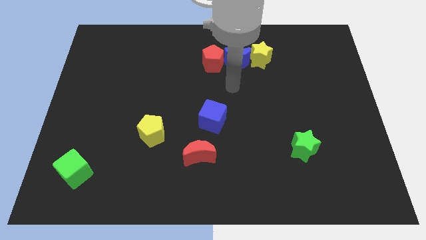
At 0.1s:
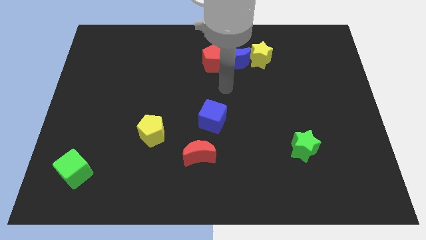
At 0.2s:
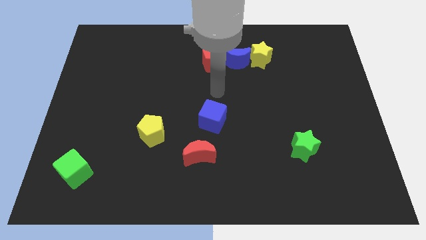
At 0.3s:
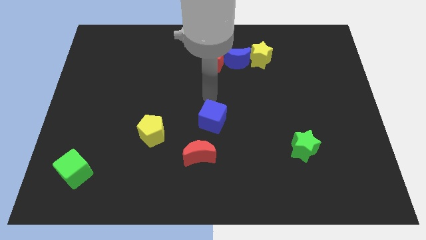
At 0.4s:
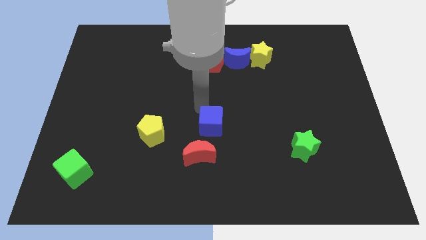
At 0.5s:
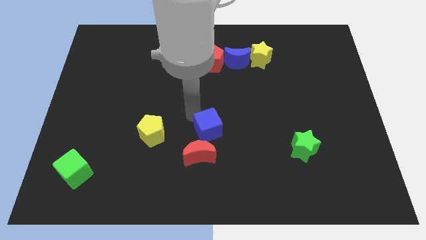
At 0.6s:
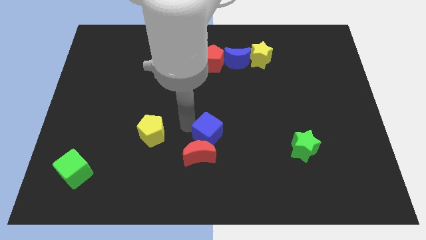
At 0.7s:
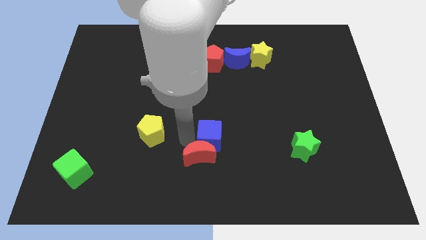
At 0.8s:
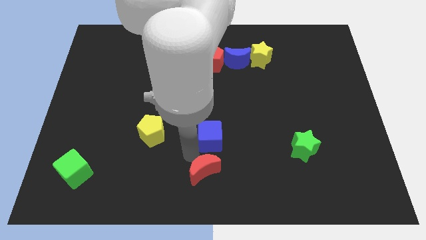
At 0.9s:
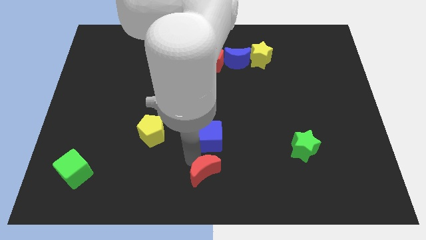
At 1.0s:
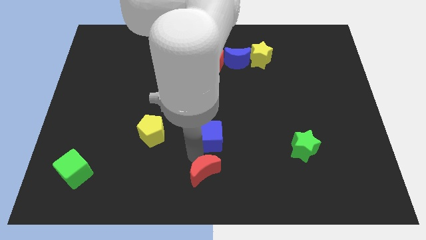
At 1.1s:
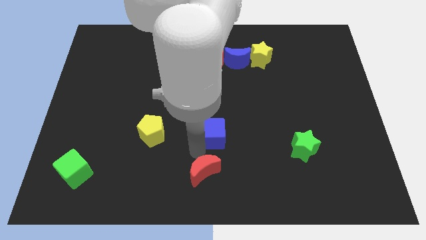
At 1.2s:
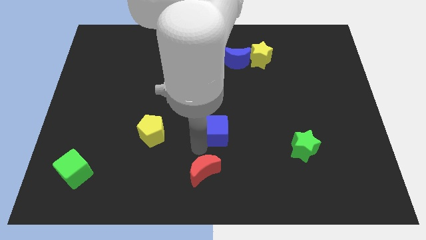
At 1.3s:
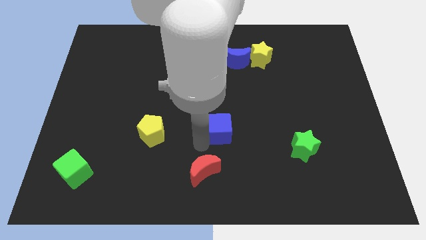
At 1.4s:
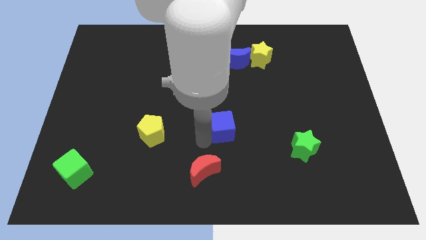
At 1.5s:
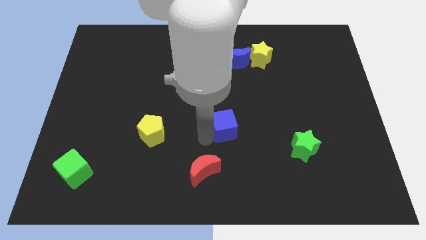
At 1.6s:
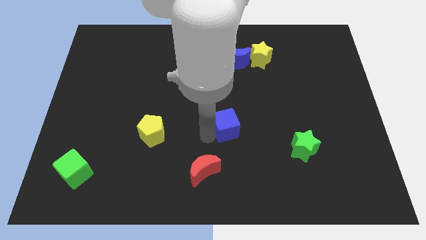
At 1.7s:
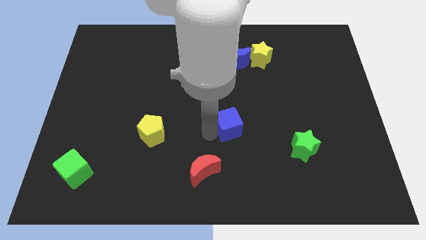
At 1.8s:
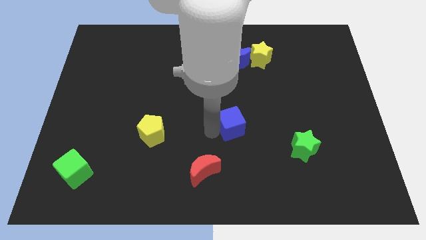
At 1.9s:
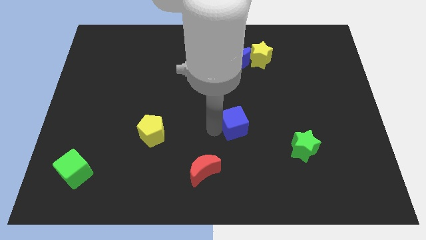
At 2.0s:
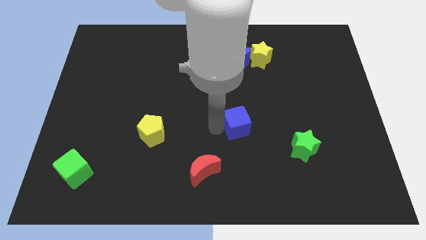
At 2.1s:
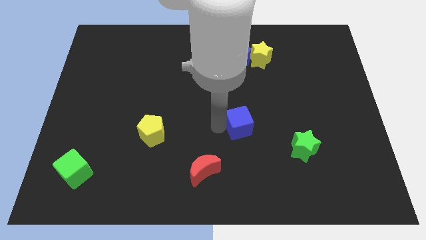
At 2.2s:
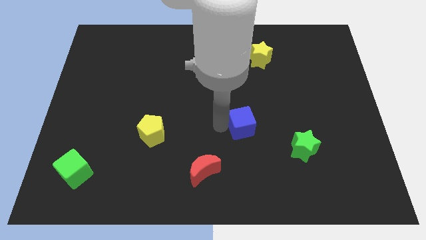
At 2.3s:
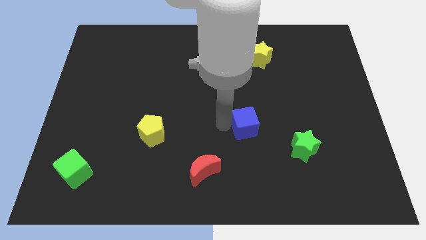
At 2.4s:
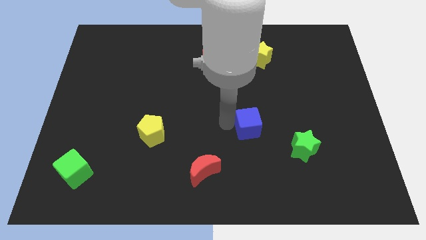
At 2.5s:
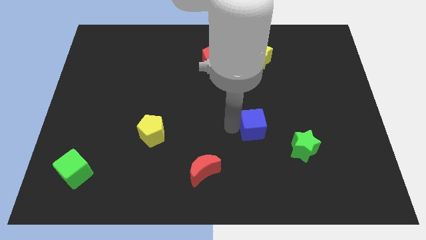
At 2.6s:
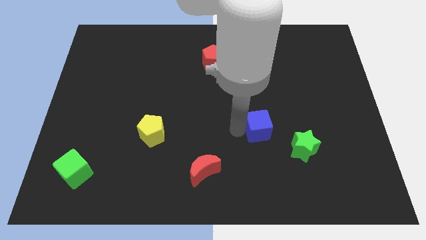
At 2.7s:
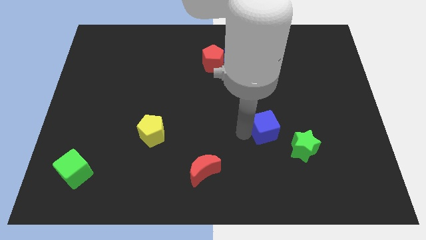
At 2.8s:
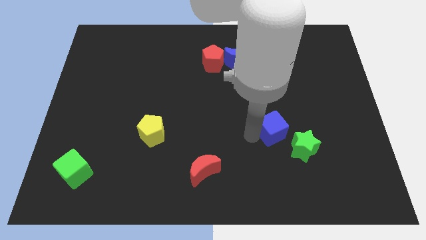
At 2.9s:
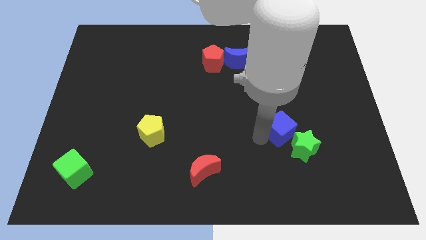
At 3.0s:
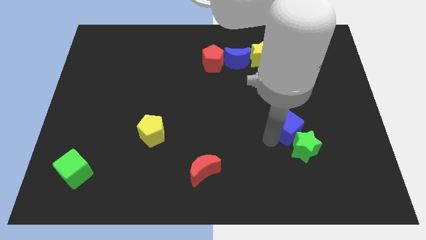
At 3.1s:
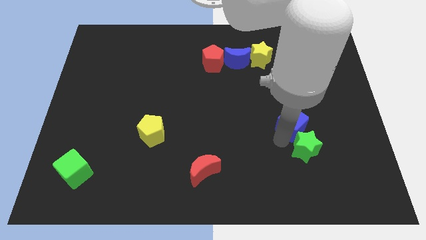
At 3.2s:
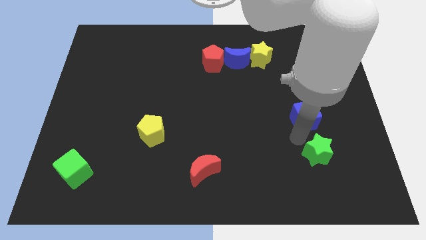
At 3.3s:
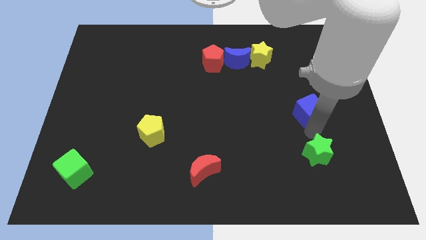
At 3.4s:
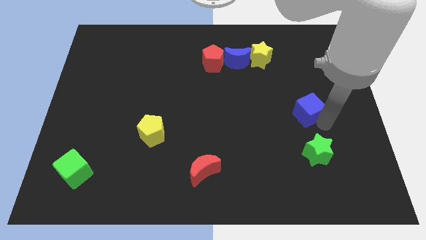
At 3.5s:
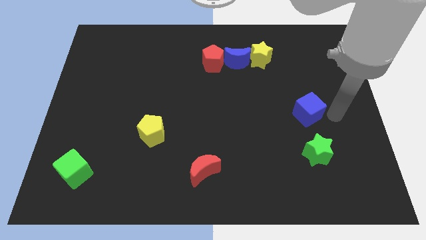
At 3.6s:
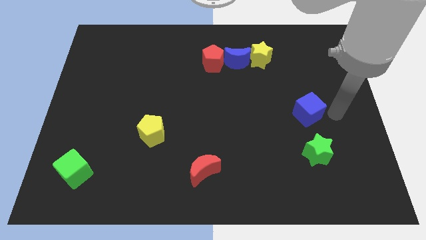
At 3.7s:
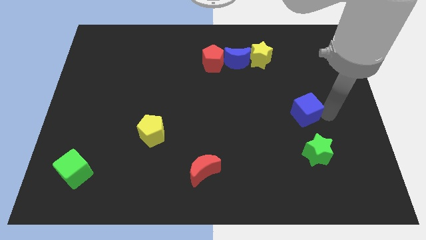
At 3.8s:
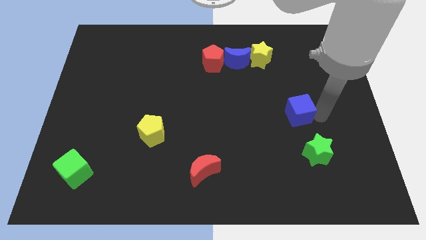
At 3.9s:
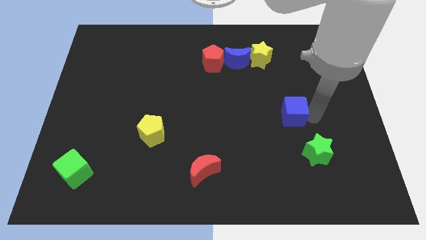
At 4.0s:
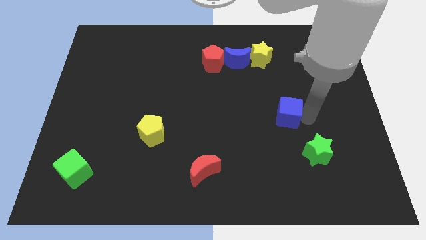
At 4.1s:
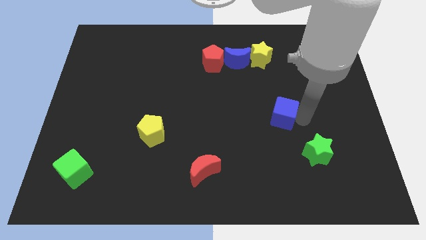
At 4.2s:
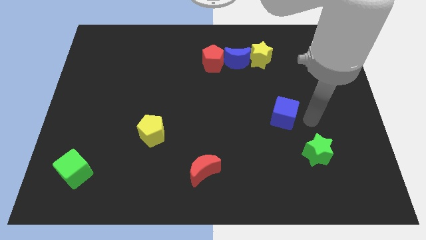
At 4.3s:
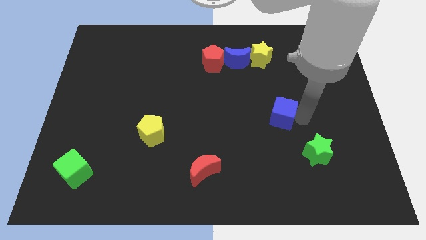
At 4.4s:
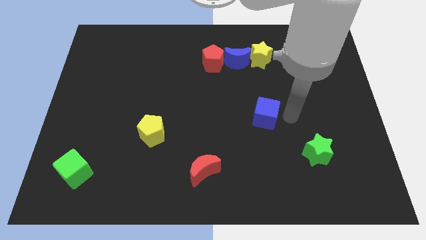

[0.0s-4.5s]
slightly slide the blue cube upwards and to the right

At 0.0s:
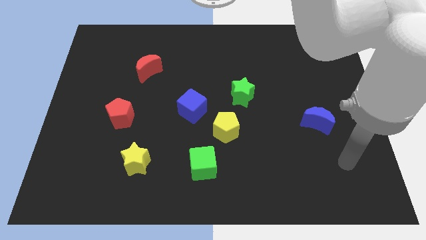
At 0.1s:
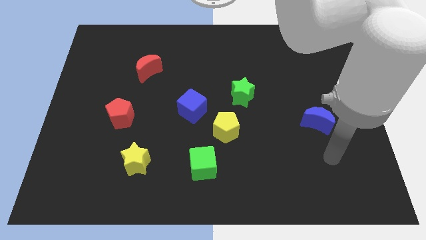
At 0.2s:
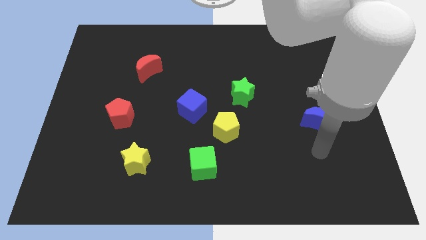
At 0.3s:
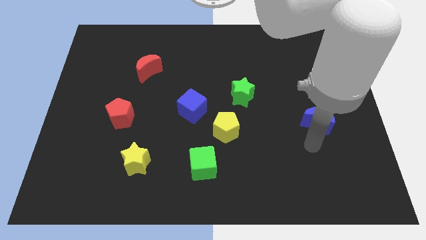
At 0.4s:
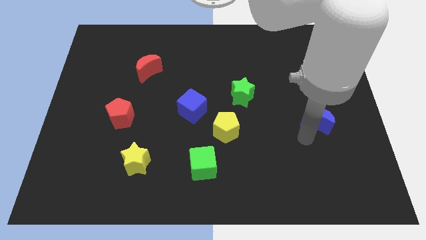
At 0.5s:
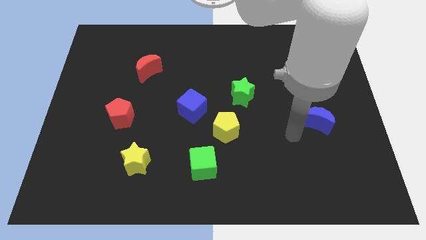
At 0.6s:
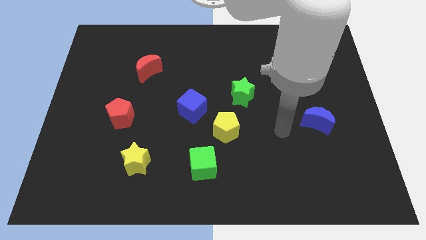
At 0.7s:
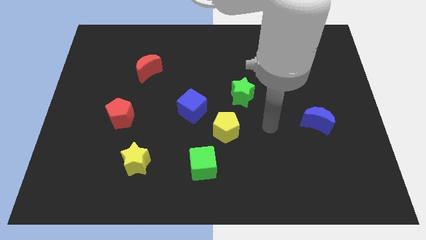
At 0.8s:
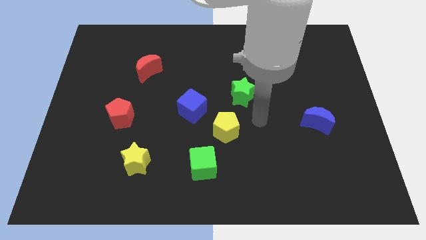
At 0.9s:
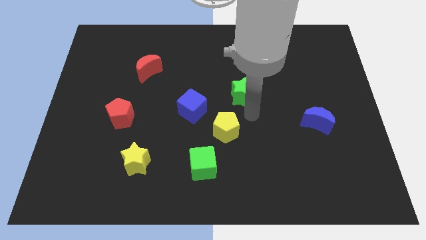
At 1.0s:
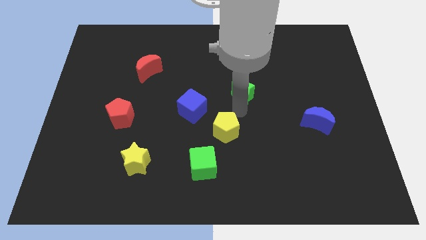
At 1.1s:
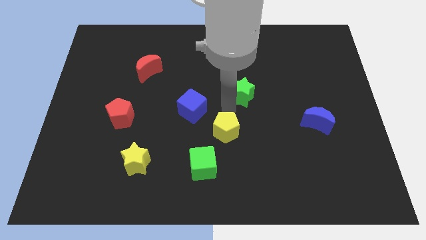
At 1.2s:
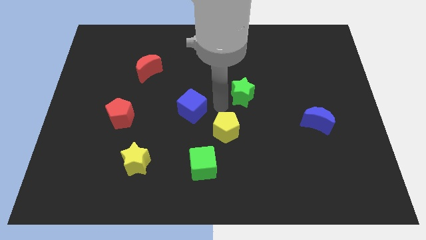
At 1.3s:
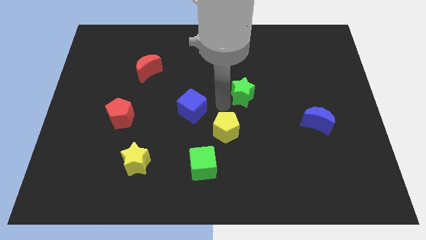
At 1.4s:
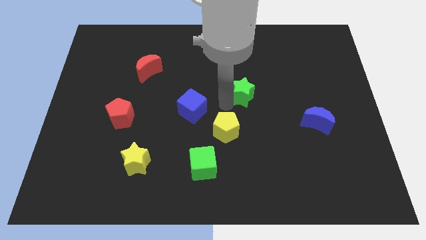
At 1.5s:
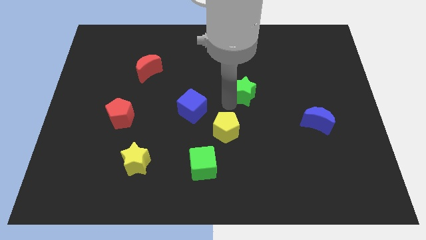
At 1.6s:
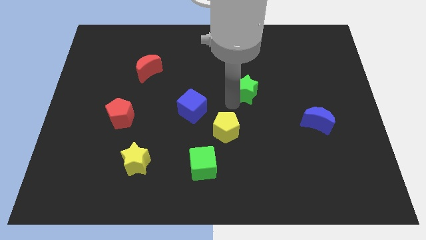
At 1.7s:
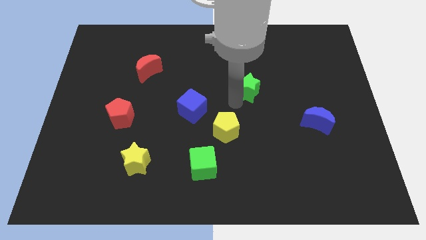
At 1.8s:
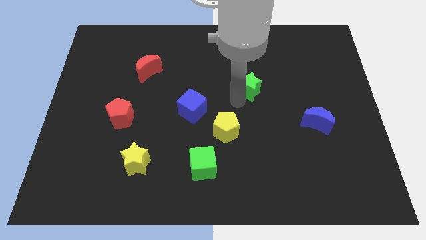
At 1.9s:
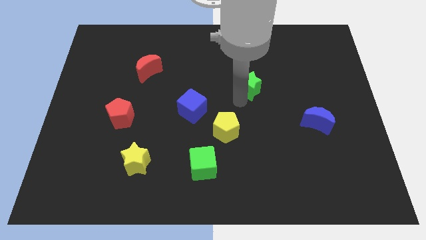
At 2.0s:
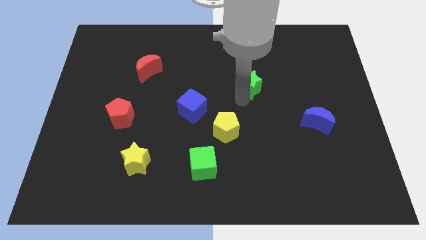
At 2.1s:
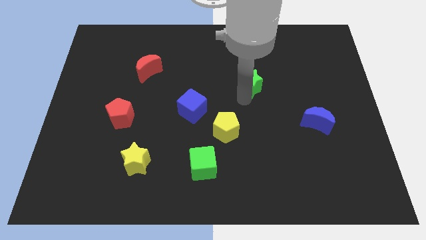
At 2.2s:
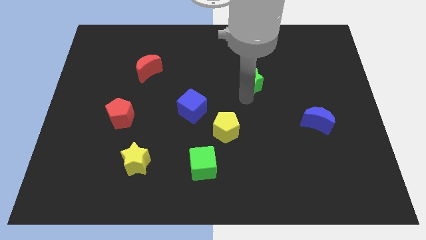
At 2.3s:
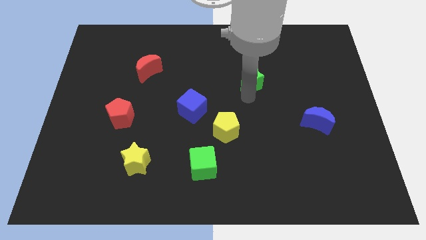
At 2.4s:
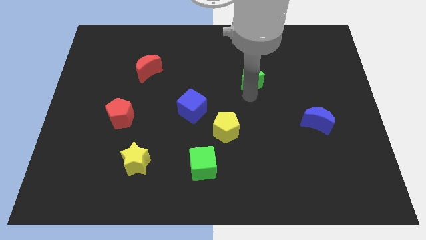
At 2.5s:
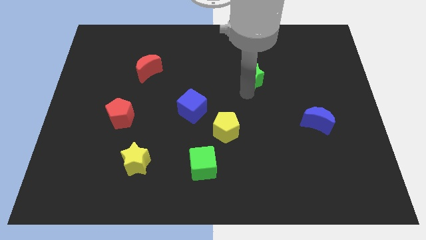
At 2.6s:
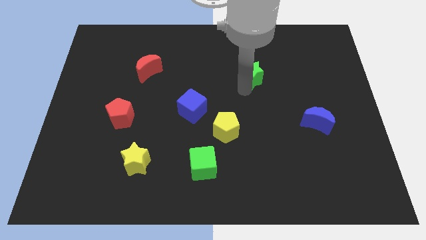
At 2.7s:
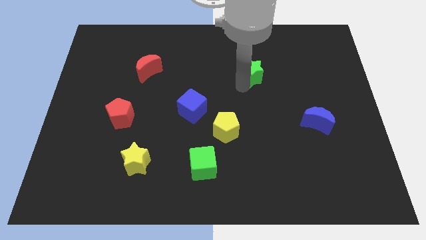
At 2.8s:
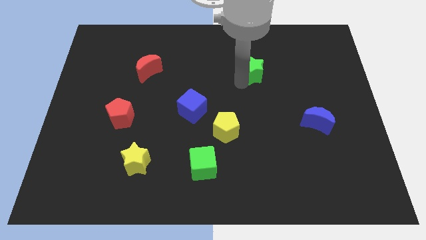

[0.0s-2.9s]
slightly slide the green star diagonally upwards and right

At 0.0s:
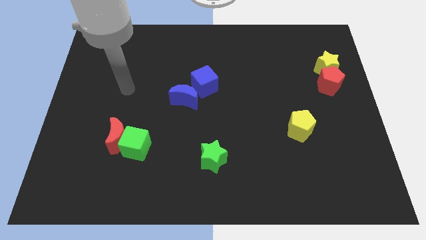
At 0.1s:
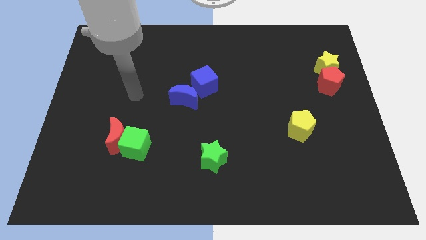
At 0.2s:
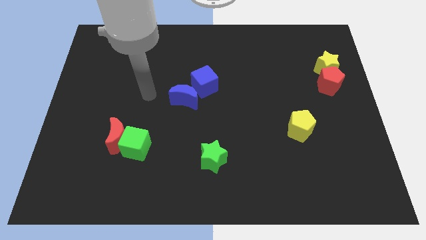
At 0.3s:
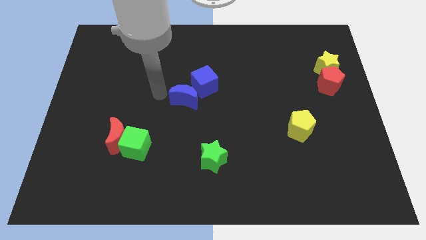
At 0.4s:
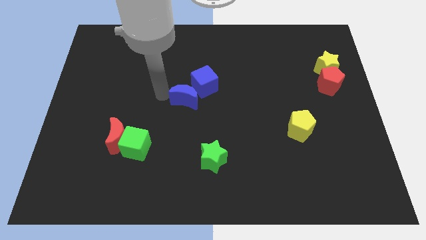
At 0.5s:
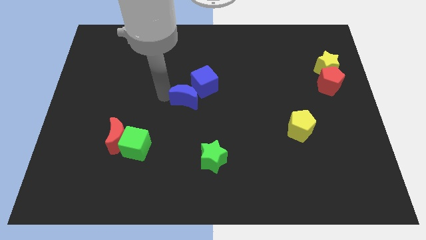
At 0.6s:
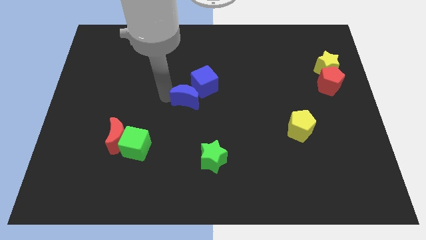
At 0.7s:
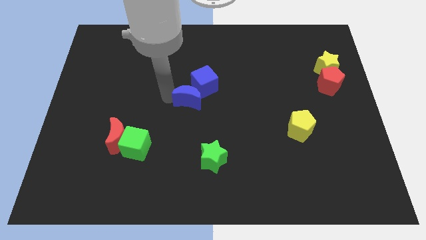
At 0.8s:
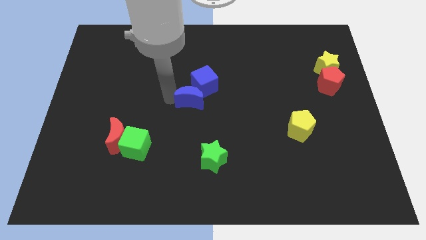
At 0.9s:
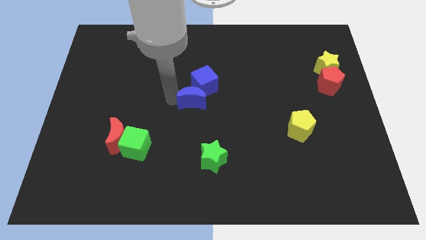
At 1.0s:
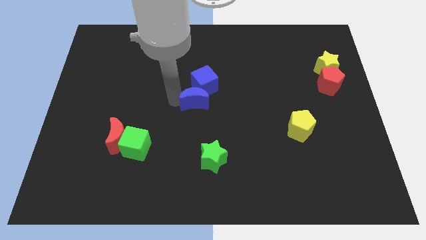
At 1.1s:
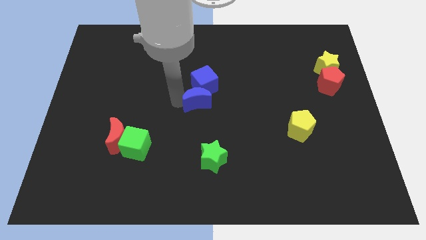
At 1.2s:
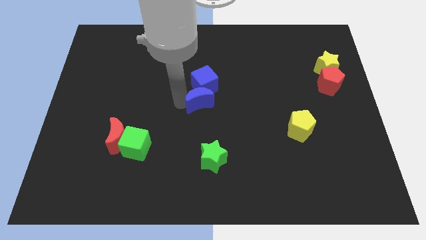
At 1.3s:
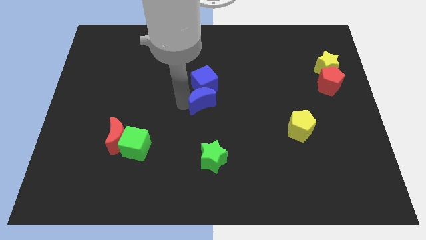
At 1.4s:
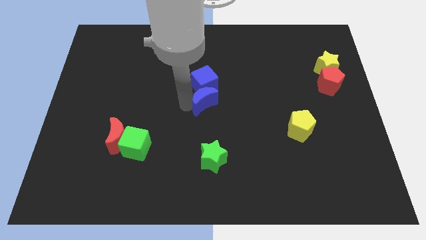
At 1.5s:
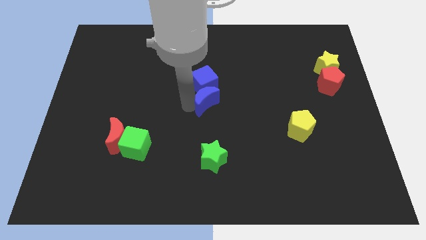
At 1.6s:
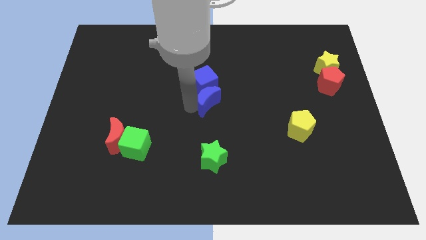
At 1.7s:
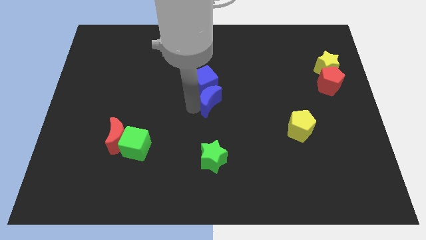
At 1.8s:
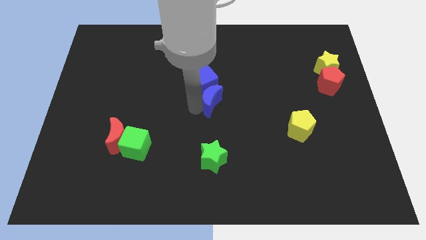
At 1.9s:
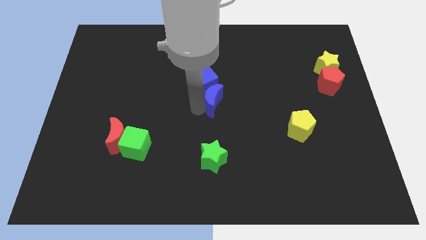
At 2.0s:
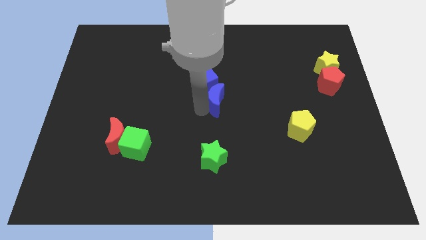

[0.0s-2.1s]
move the blue moon somewhat right
